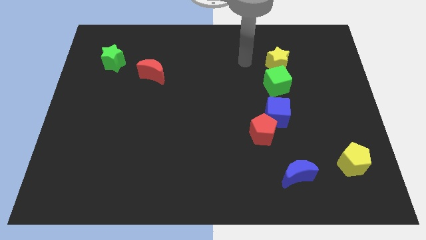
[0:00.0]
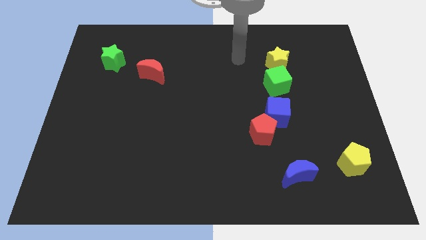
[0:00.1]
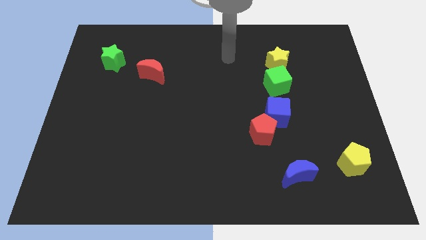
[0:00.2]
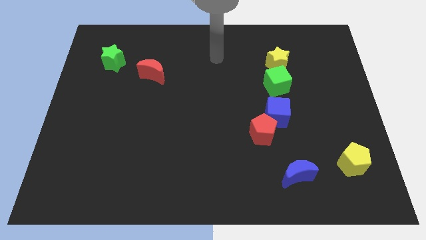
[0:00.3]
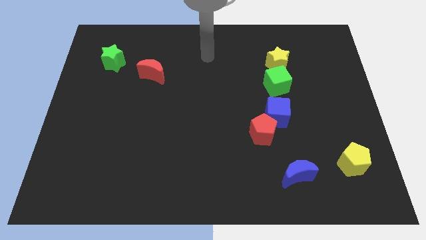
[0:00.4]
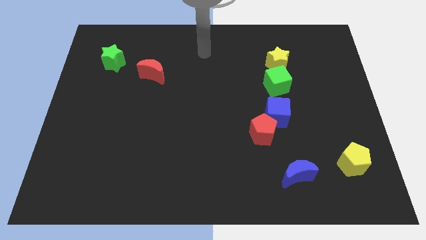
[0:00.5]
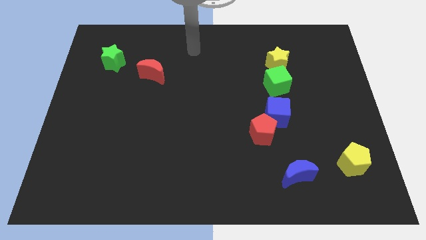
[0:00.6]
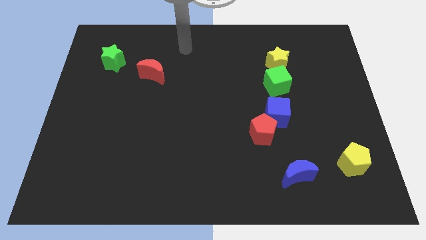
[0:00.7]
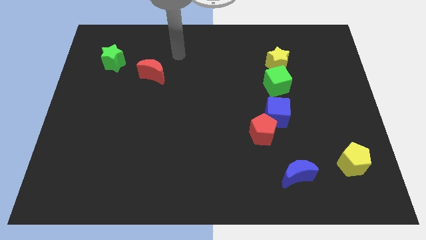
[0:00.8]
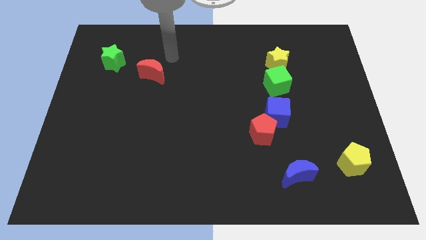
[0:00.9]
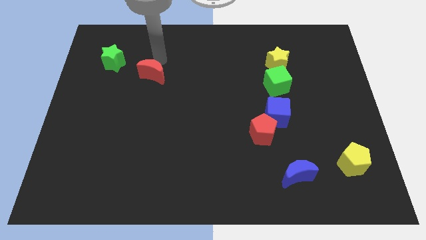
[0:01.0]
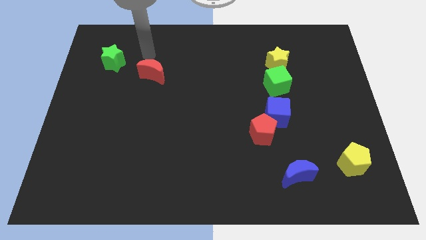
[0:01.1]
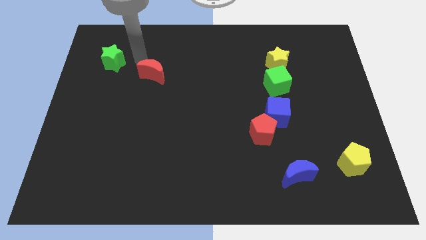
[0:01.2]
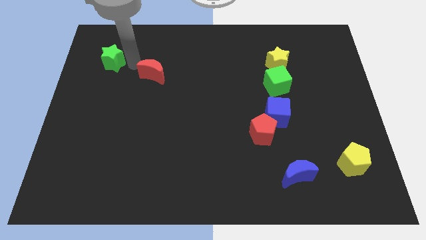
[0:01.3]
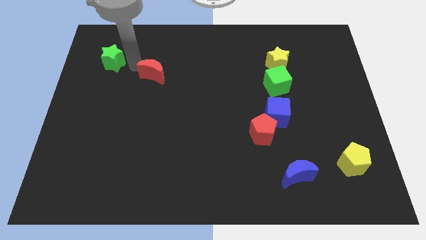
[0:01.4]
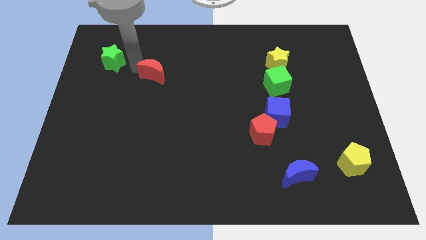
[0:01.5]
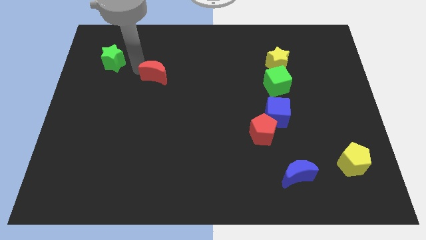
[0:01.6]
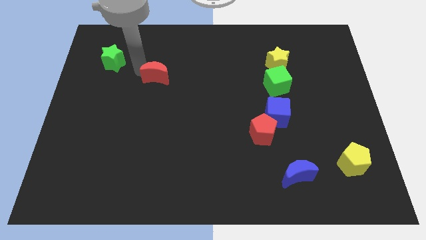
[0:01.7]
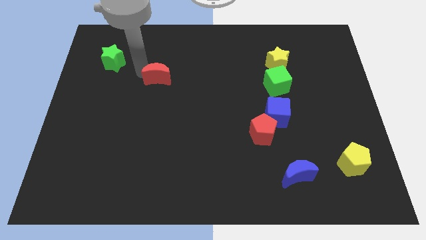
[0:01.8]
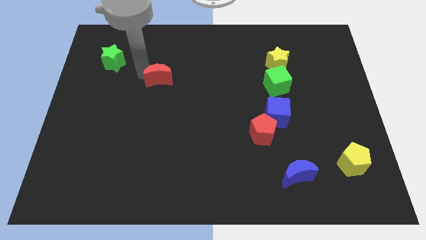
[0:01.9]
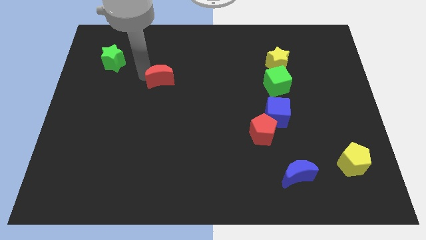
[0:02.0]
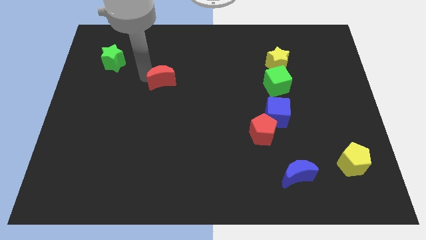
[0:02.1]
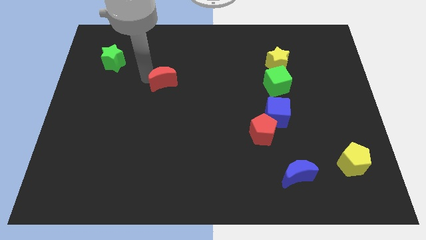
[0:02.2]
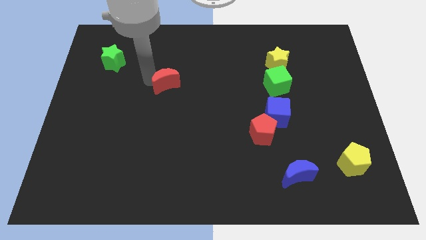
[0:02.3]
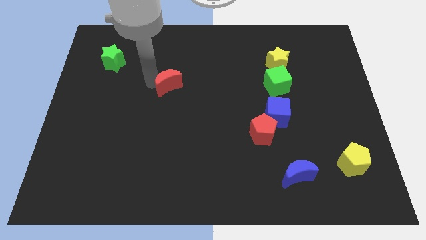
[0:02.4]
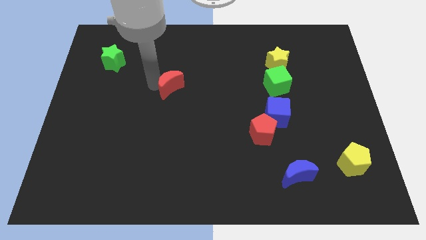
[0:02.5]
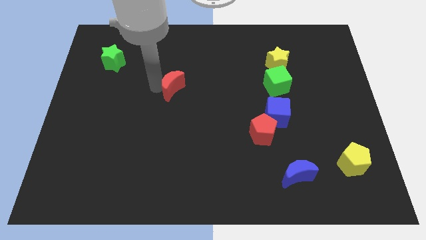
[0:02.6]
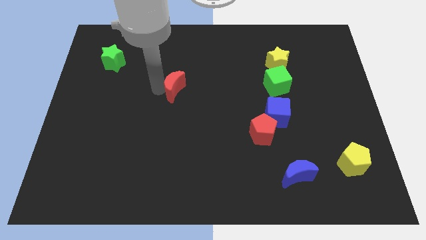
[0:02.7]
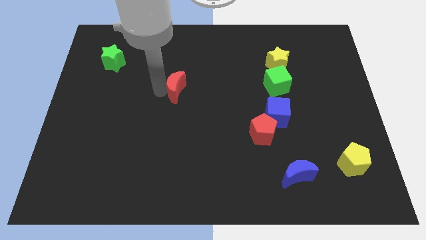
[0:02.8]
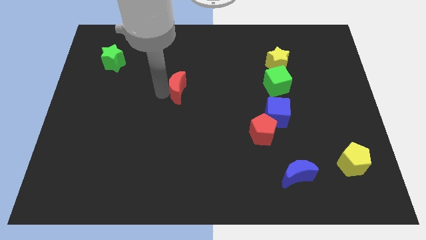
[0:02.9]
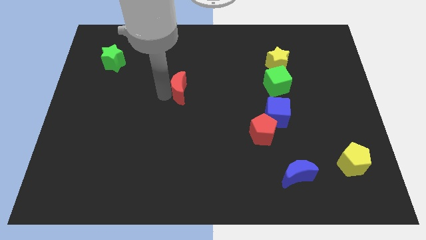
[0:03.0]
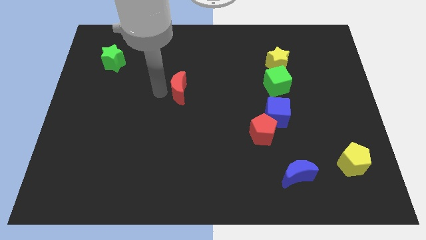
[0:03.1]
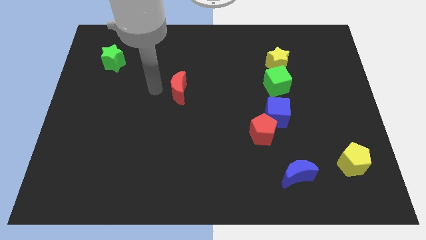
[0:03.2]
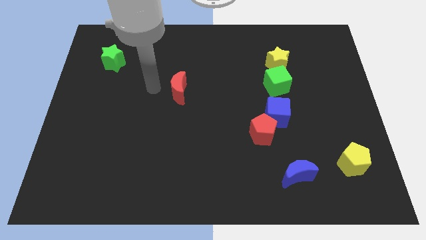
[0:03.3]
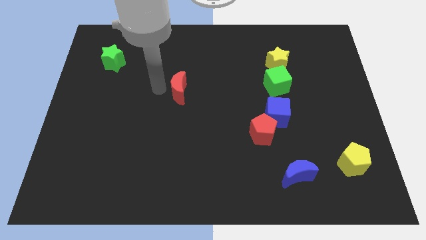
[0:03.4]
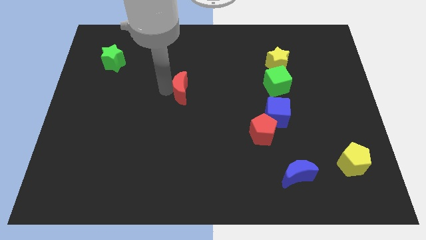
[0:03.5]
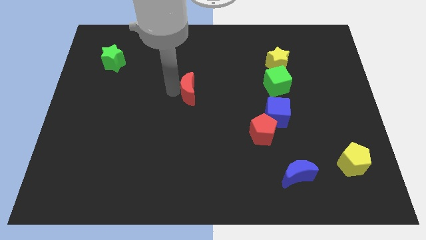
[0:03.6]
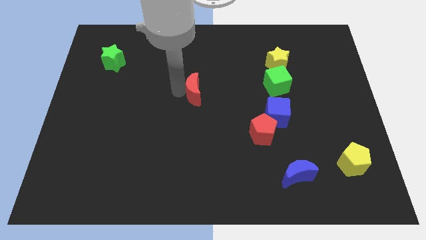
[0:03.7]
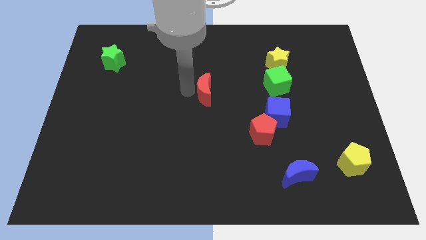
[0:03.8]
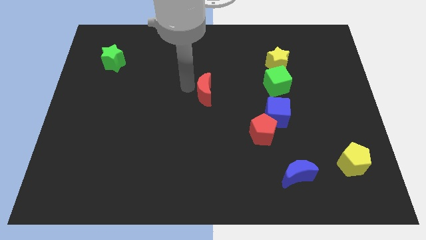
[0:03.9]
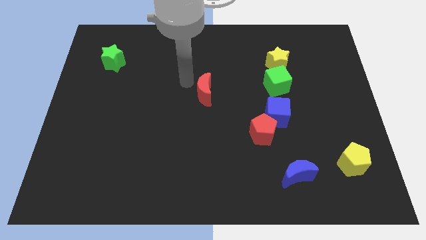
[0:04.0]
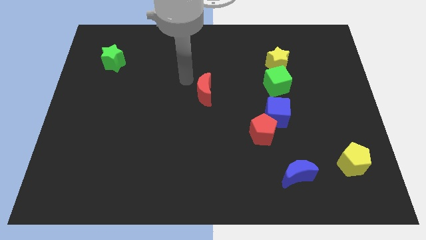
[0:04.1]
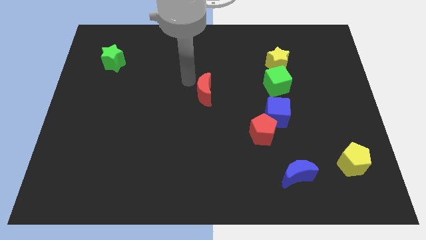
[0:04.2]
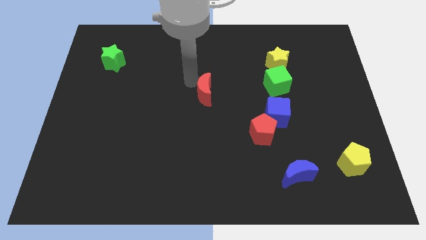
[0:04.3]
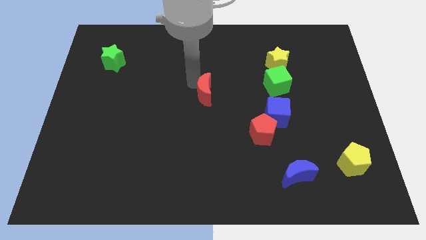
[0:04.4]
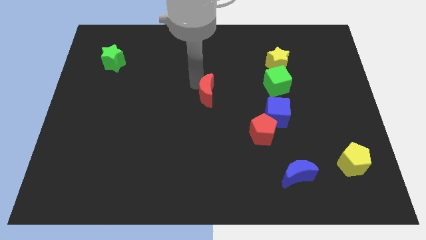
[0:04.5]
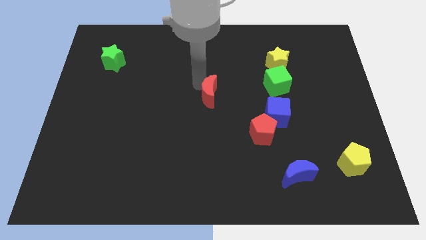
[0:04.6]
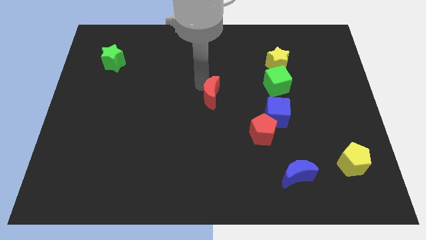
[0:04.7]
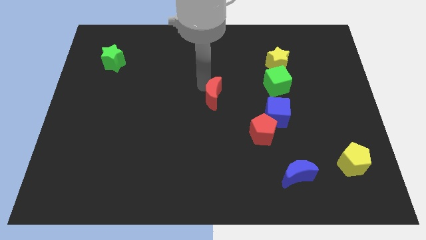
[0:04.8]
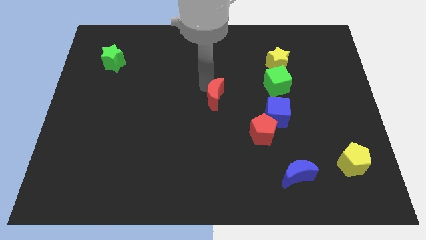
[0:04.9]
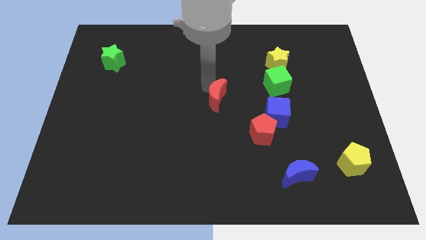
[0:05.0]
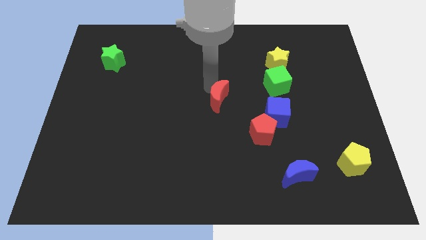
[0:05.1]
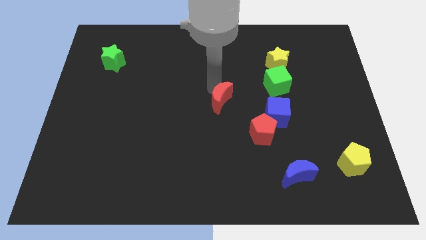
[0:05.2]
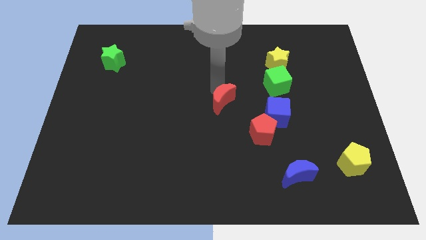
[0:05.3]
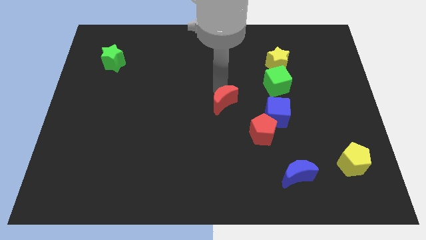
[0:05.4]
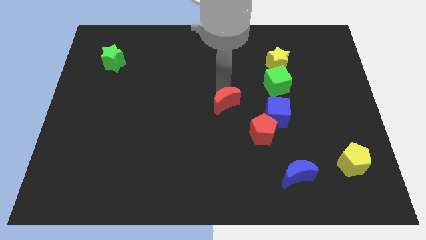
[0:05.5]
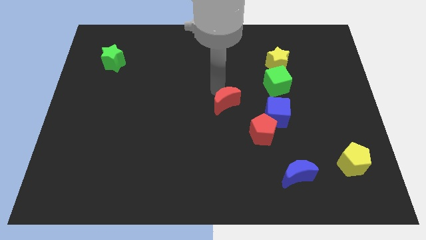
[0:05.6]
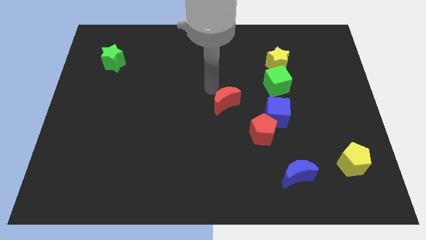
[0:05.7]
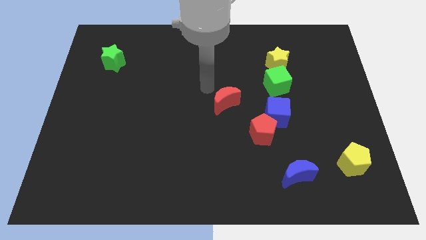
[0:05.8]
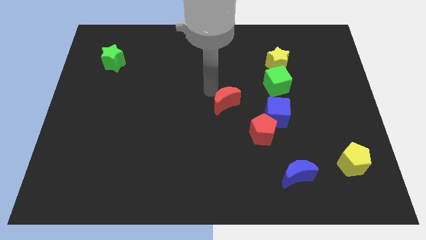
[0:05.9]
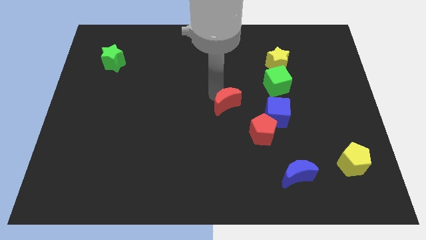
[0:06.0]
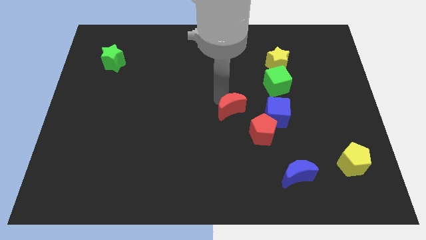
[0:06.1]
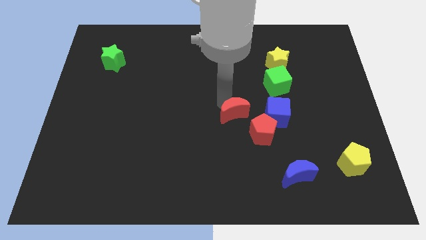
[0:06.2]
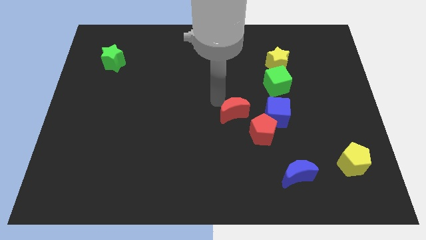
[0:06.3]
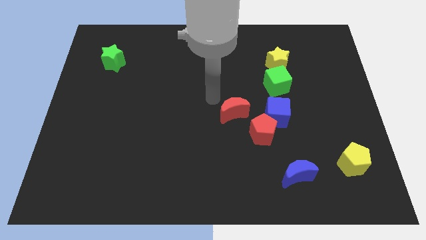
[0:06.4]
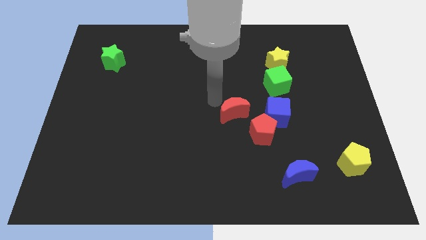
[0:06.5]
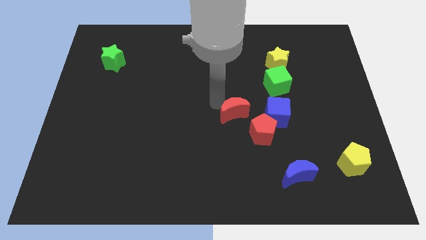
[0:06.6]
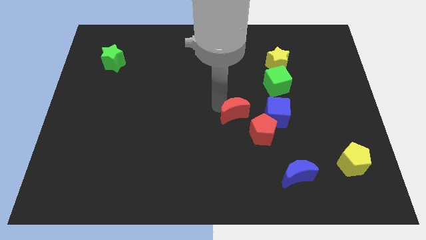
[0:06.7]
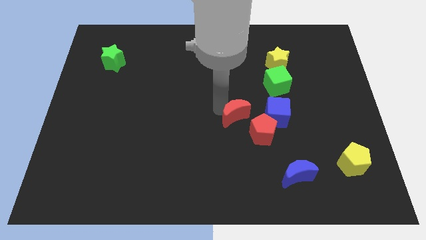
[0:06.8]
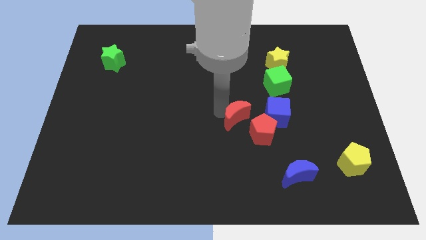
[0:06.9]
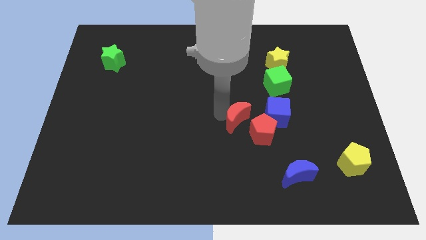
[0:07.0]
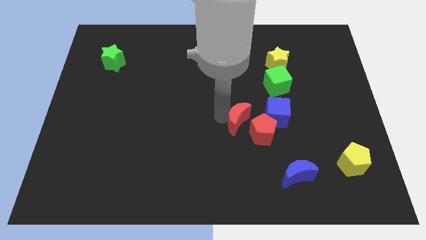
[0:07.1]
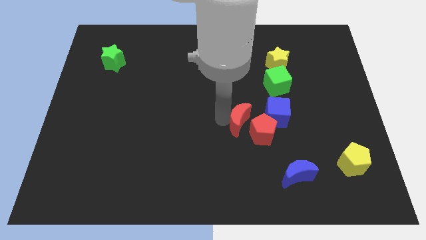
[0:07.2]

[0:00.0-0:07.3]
put the red moon towards the red pentagon
